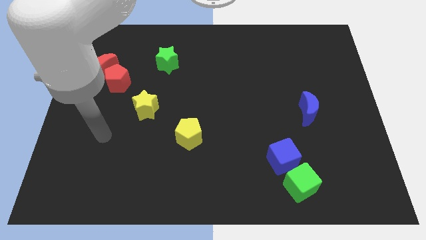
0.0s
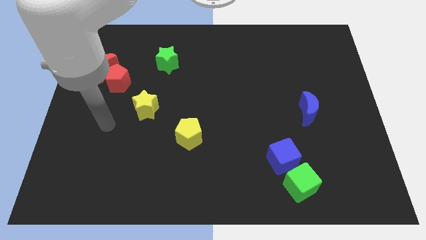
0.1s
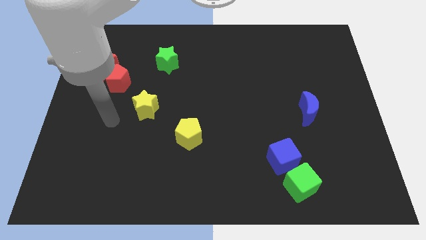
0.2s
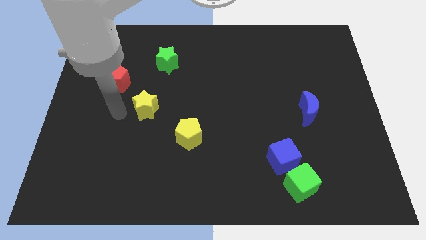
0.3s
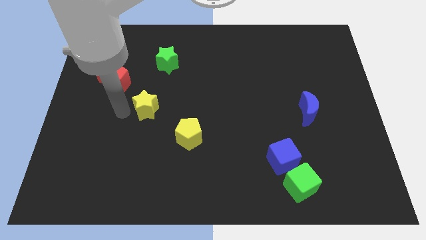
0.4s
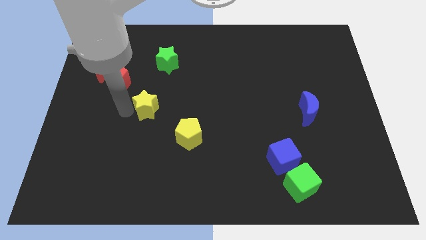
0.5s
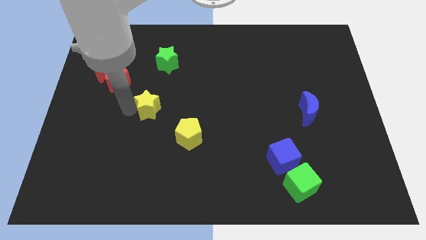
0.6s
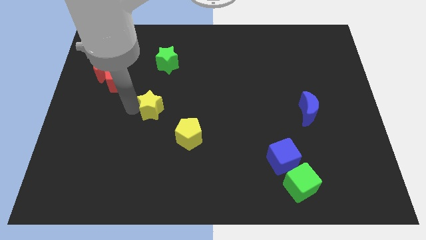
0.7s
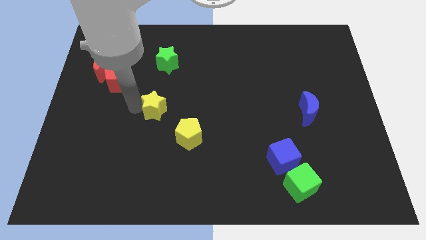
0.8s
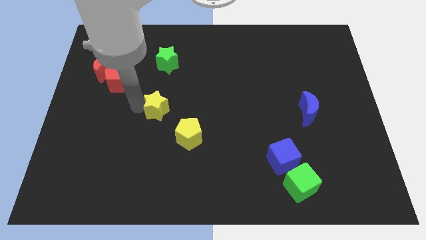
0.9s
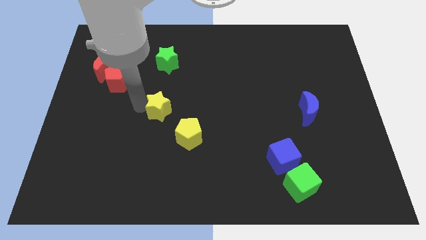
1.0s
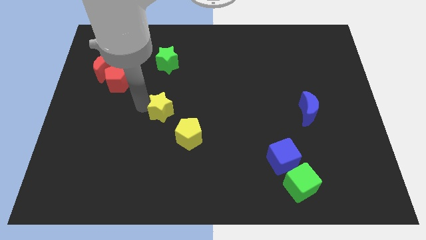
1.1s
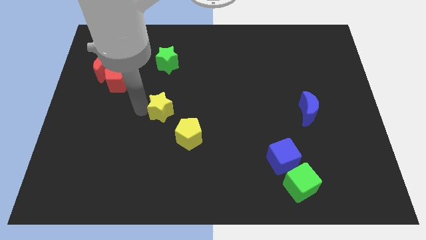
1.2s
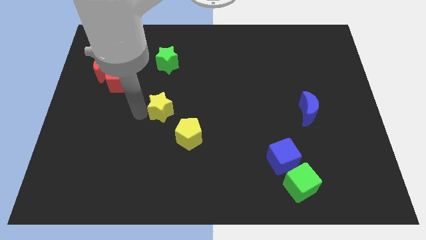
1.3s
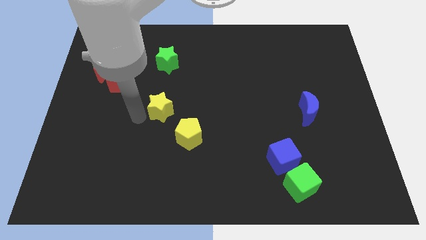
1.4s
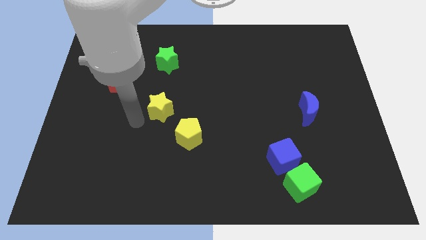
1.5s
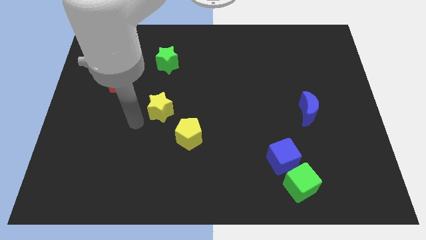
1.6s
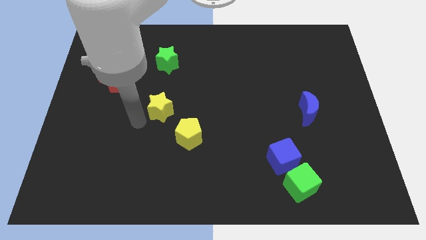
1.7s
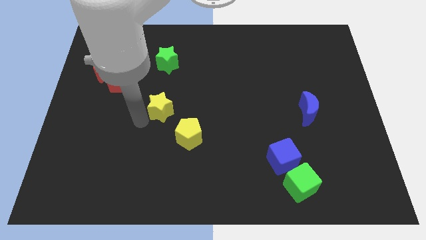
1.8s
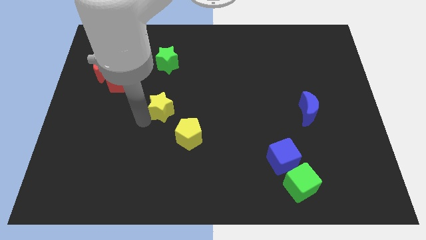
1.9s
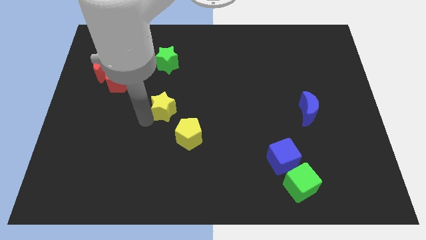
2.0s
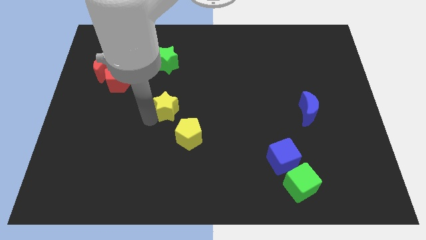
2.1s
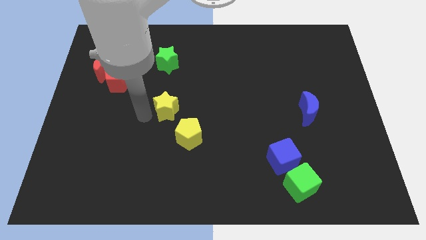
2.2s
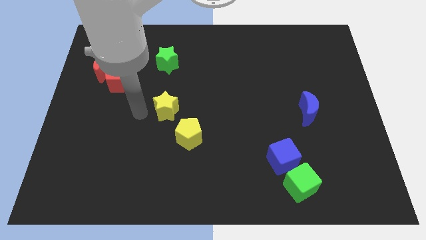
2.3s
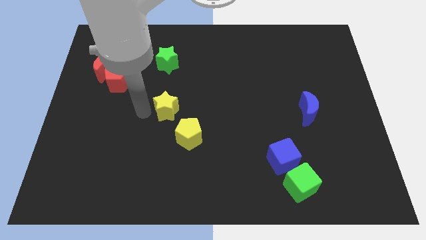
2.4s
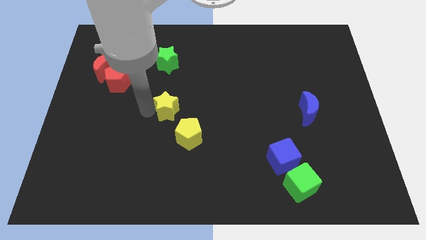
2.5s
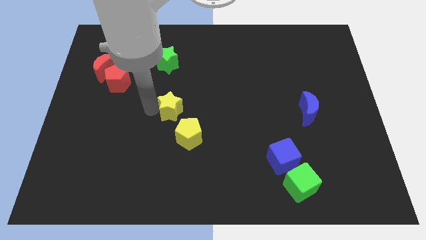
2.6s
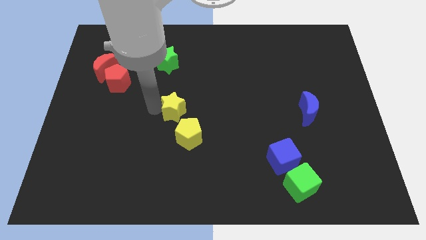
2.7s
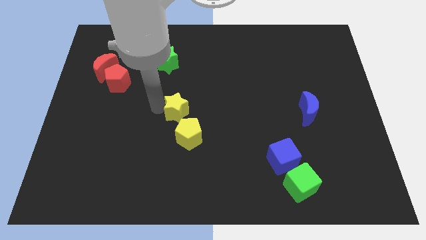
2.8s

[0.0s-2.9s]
move the yellow star to the right slightly

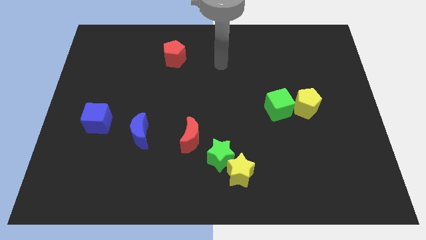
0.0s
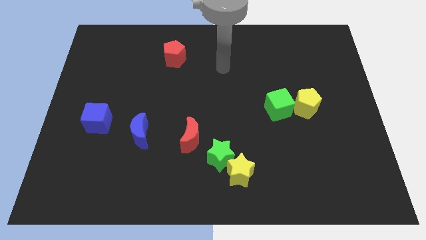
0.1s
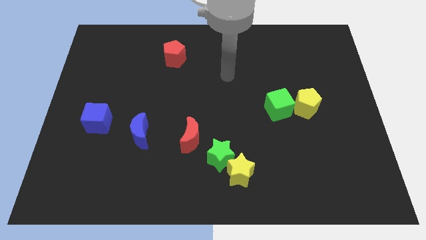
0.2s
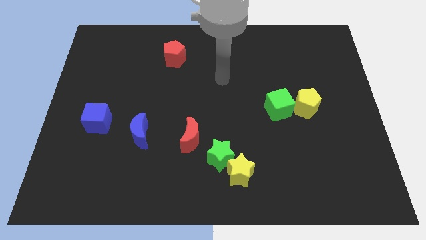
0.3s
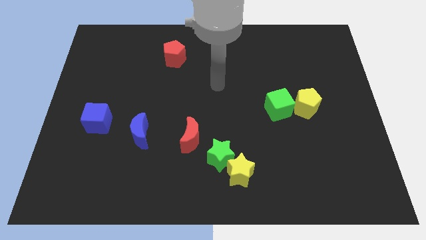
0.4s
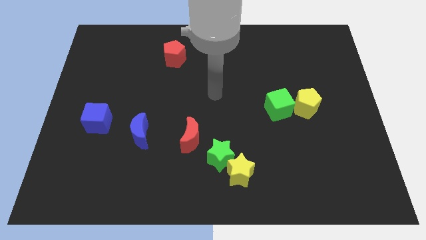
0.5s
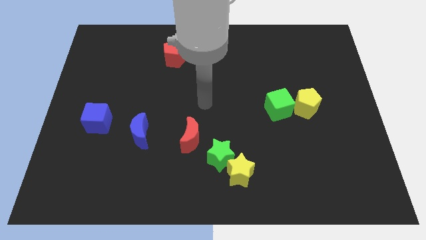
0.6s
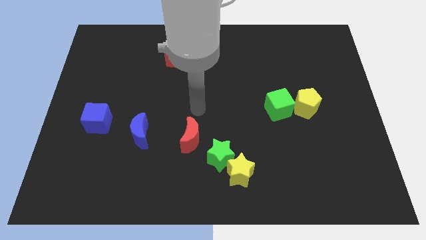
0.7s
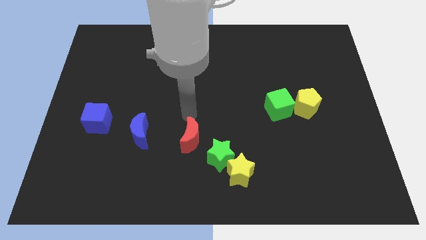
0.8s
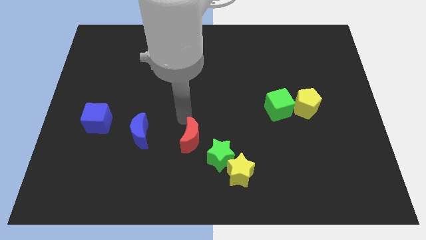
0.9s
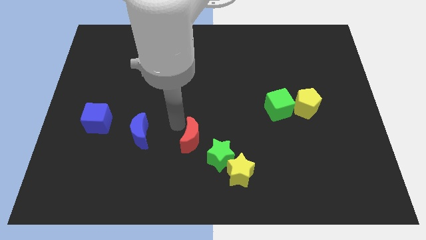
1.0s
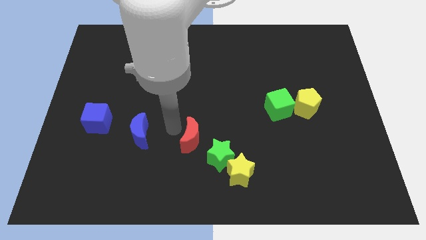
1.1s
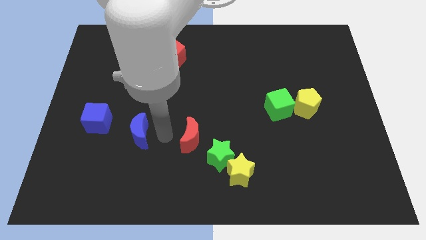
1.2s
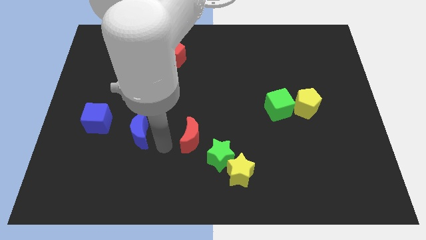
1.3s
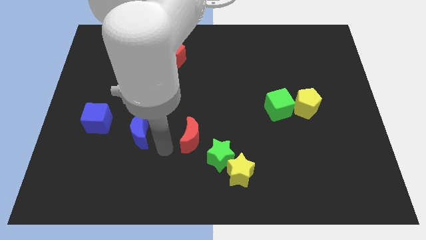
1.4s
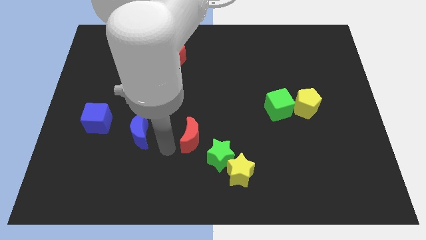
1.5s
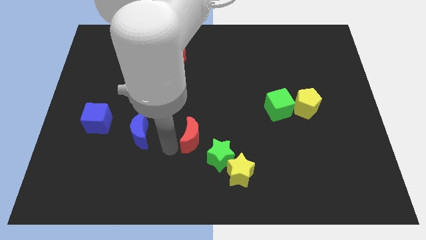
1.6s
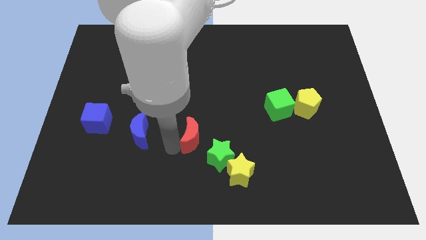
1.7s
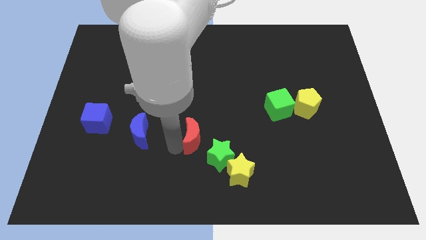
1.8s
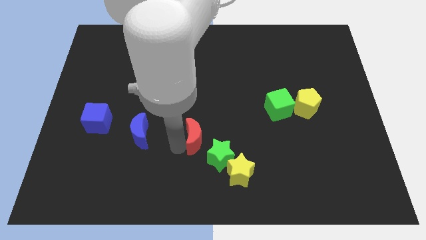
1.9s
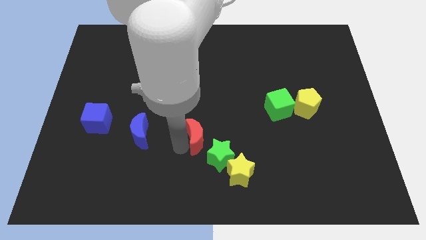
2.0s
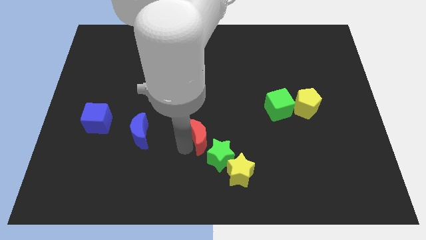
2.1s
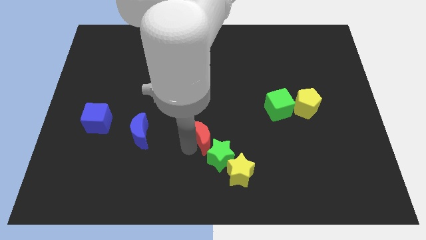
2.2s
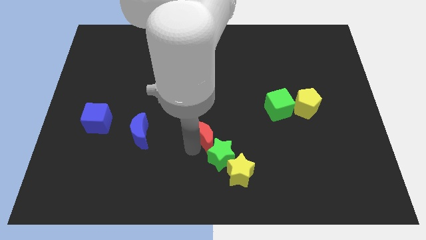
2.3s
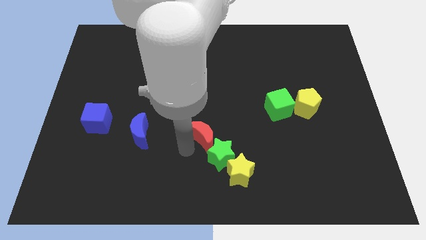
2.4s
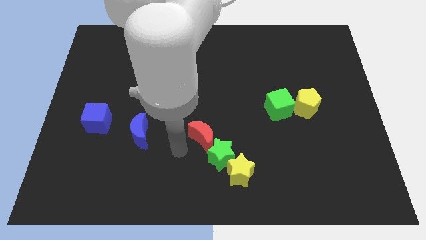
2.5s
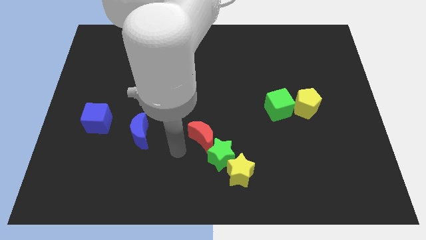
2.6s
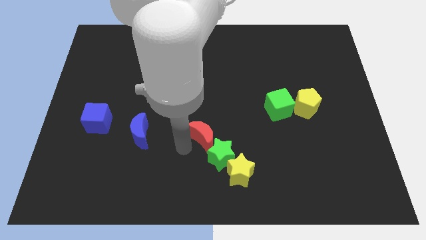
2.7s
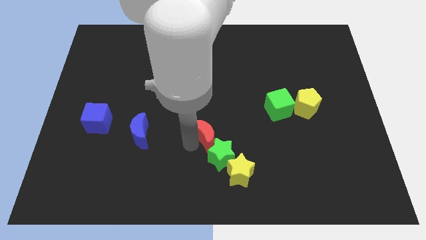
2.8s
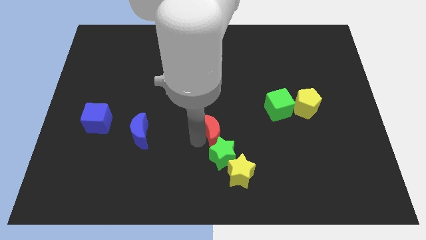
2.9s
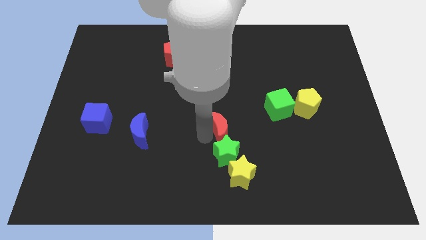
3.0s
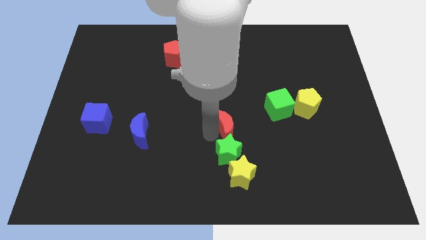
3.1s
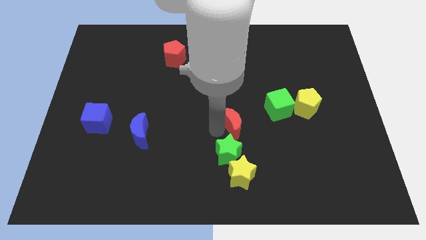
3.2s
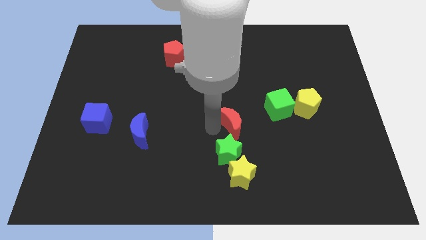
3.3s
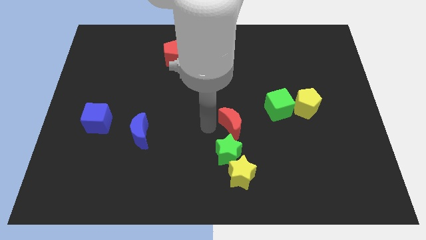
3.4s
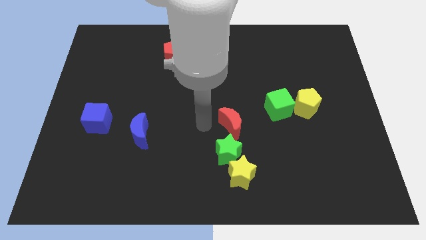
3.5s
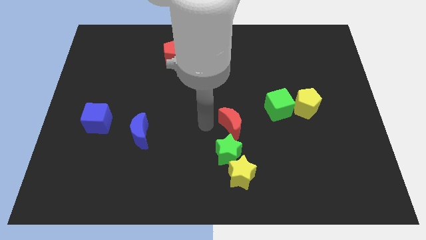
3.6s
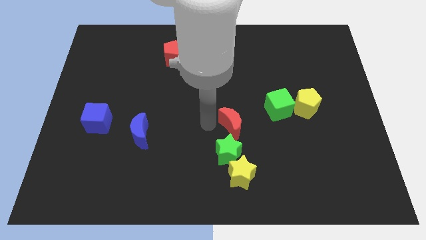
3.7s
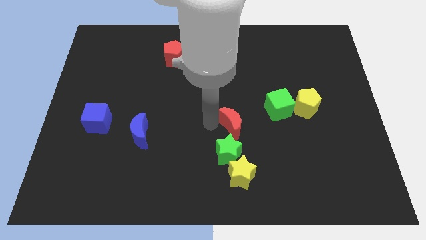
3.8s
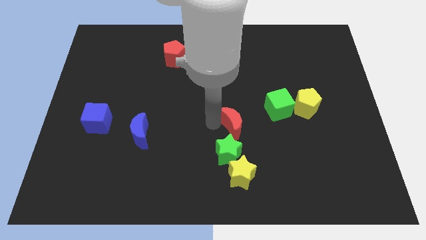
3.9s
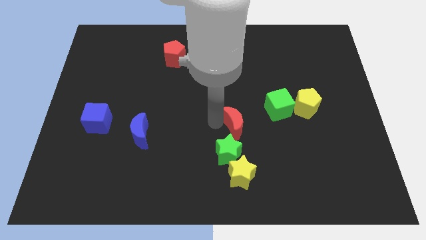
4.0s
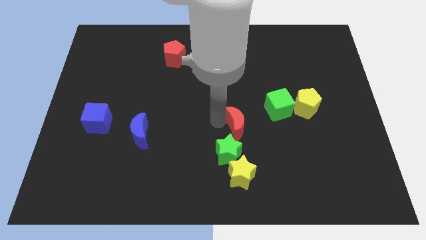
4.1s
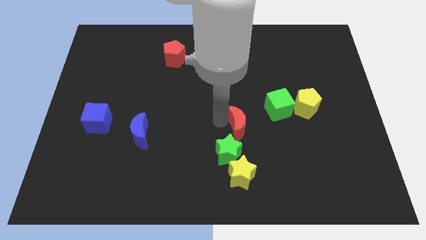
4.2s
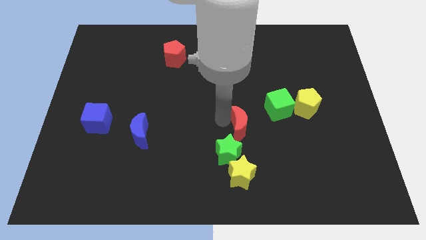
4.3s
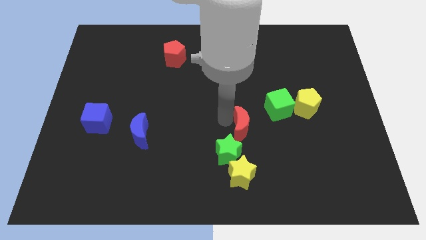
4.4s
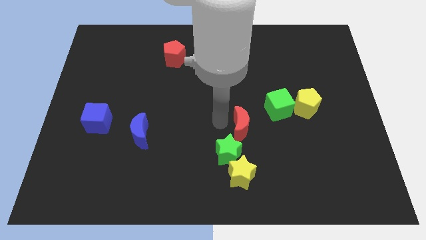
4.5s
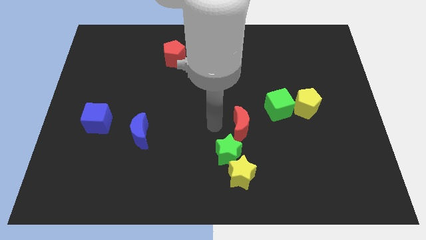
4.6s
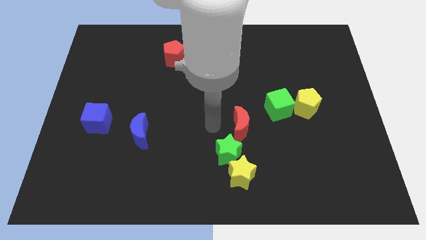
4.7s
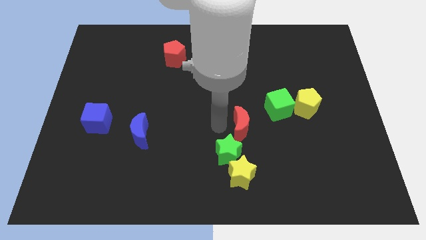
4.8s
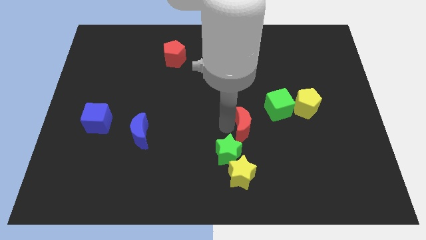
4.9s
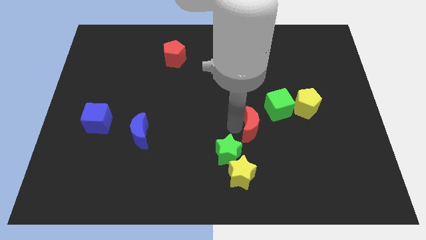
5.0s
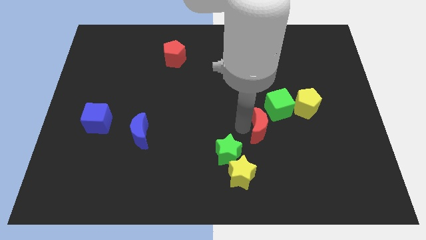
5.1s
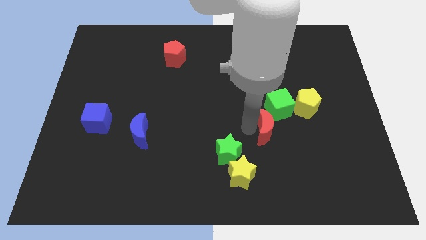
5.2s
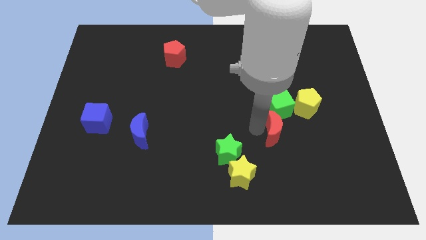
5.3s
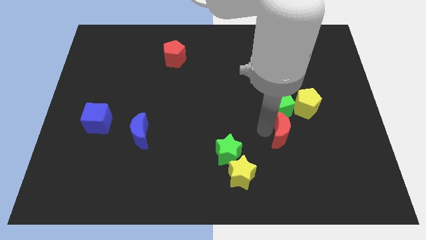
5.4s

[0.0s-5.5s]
move the red moon to the right
